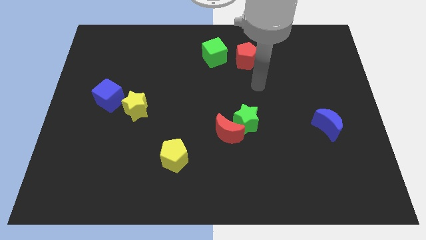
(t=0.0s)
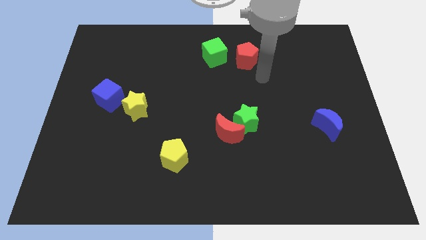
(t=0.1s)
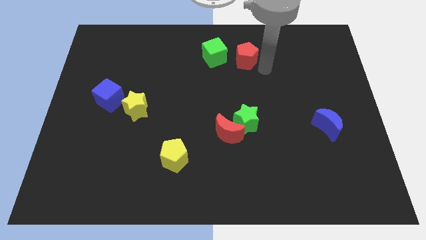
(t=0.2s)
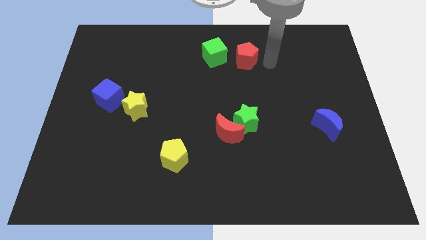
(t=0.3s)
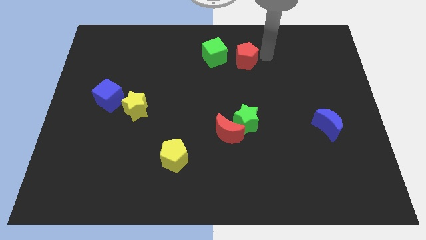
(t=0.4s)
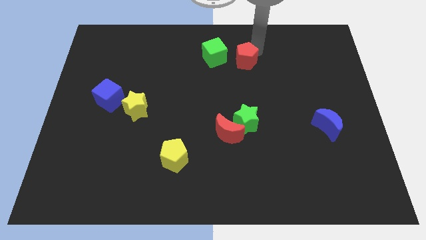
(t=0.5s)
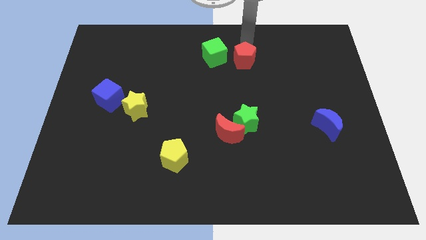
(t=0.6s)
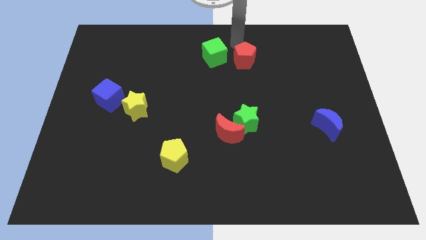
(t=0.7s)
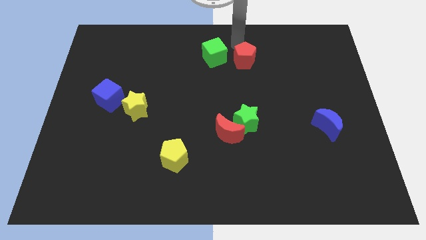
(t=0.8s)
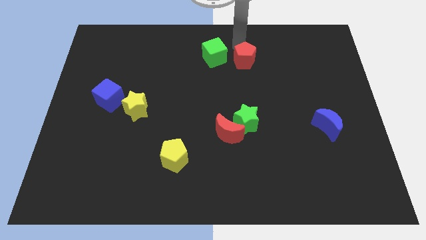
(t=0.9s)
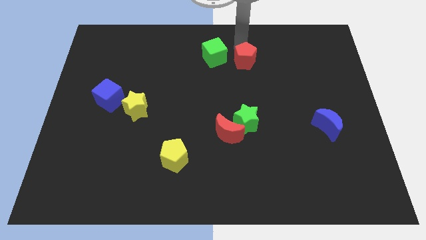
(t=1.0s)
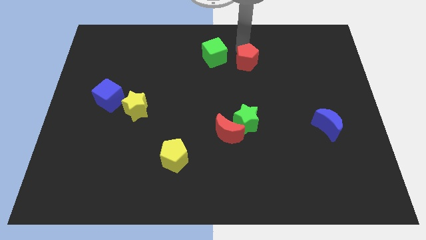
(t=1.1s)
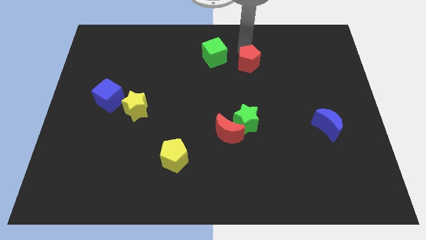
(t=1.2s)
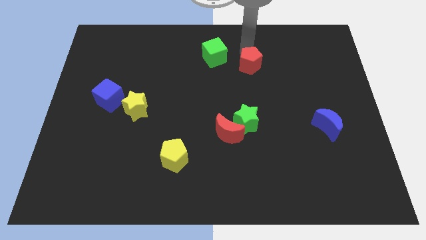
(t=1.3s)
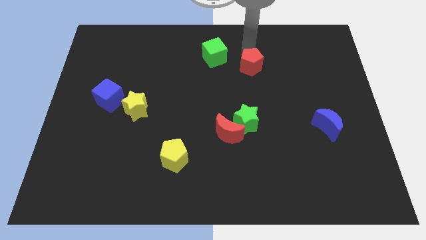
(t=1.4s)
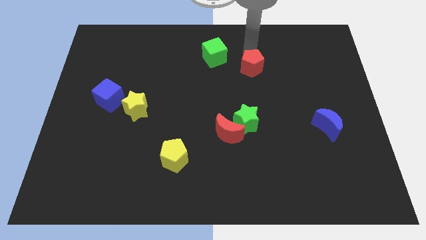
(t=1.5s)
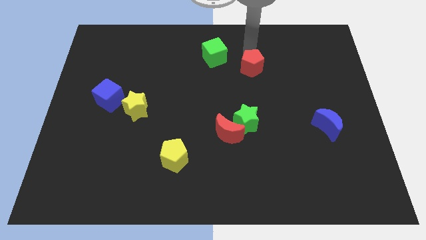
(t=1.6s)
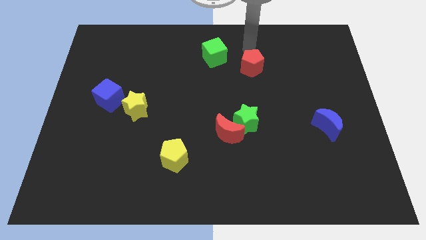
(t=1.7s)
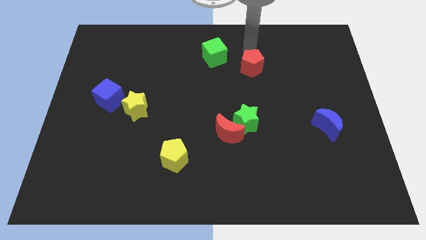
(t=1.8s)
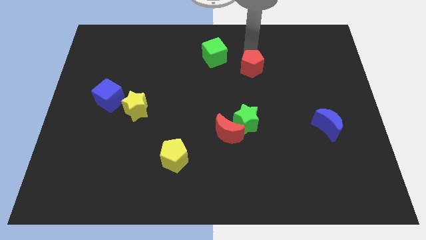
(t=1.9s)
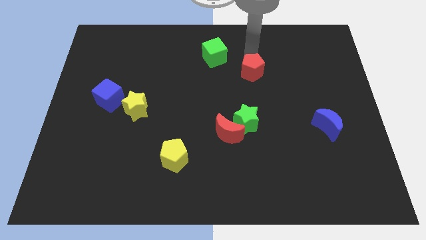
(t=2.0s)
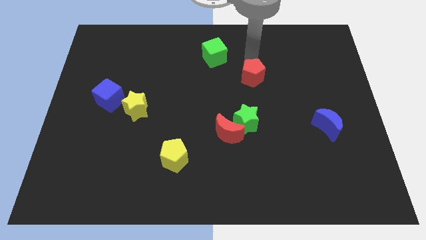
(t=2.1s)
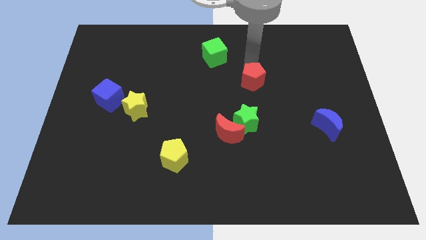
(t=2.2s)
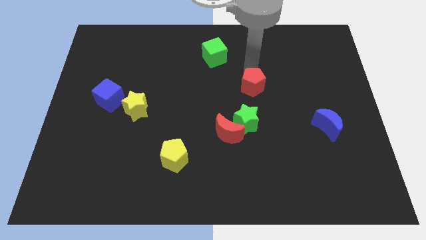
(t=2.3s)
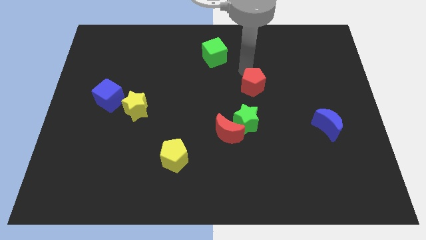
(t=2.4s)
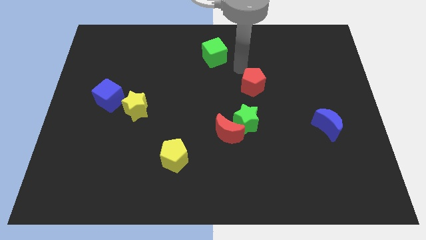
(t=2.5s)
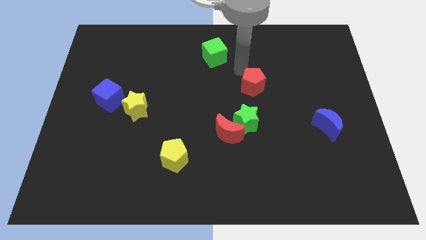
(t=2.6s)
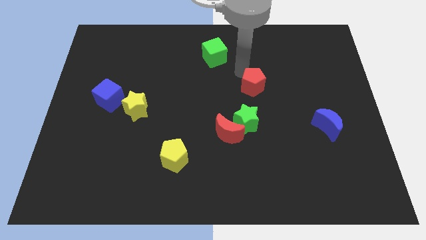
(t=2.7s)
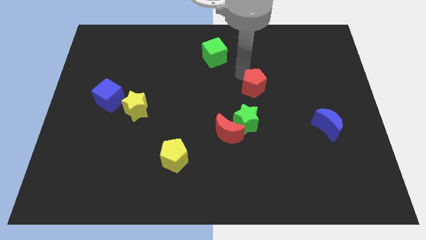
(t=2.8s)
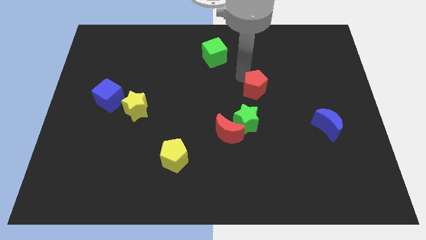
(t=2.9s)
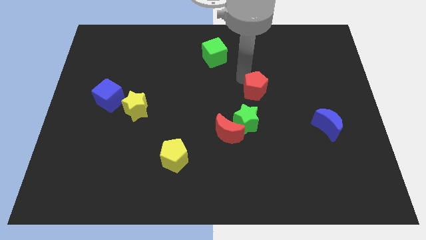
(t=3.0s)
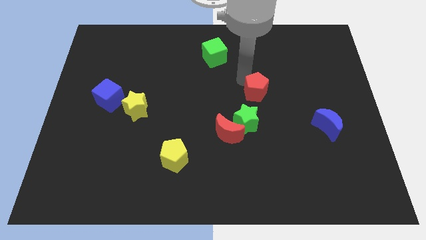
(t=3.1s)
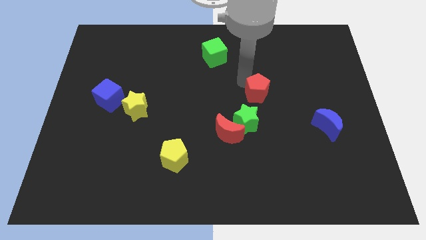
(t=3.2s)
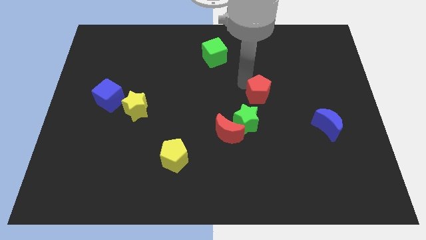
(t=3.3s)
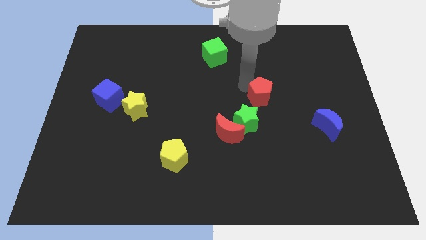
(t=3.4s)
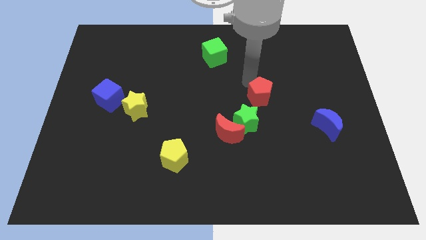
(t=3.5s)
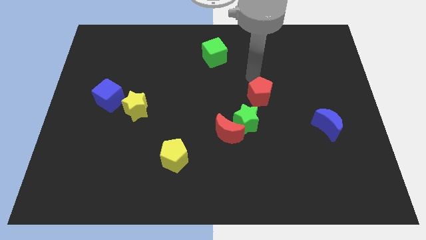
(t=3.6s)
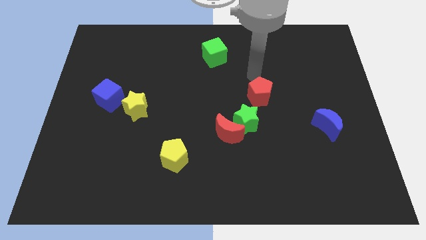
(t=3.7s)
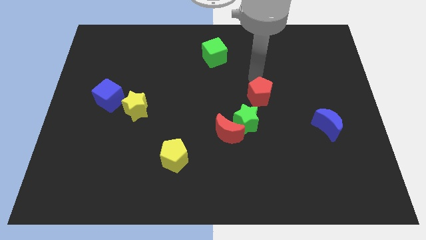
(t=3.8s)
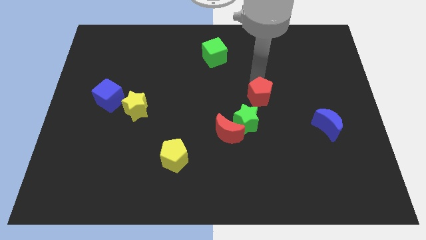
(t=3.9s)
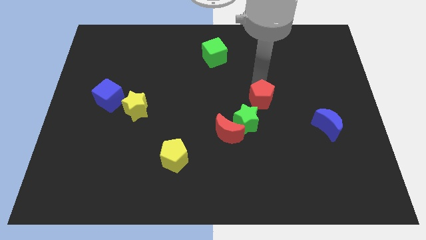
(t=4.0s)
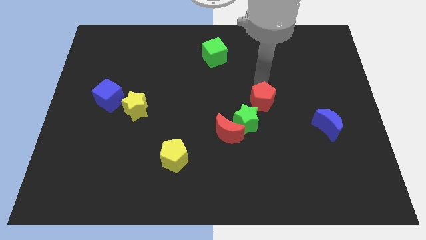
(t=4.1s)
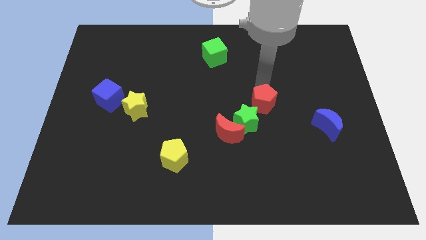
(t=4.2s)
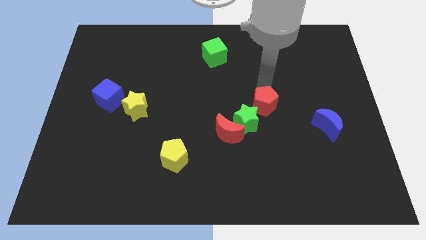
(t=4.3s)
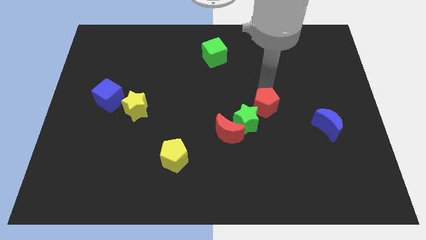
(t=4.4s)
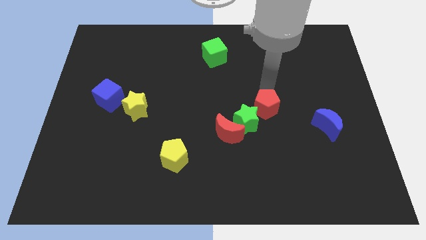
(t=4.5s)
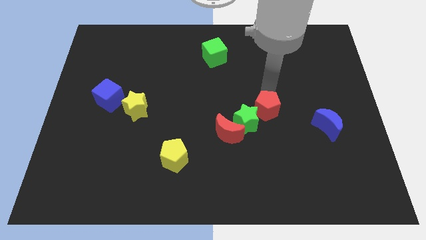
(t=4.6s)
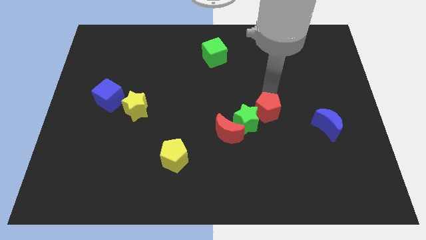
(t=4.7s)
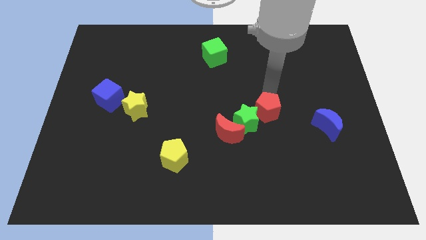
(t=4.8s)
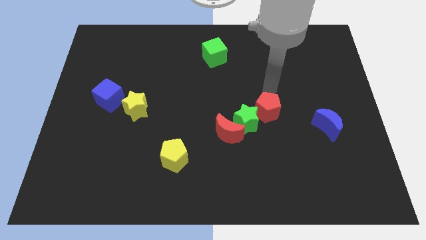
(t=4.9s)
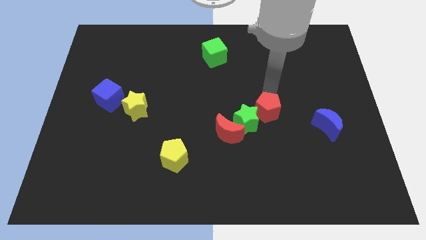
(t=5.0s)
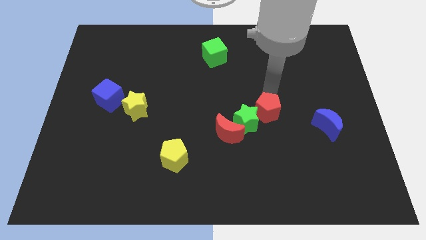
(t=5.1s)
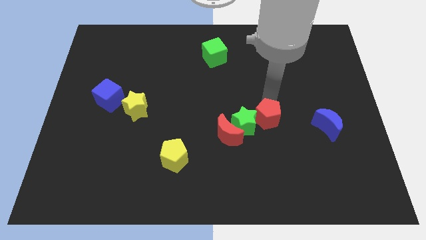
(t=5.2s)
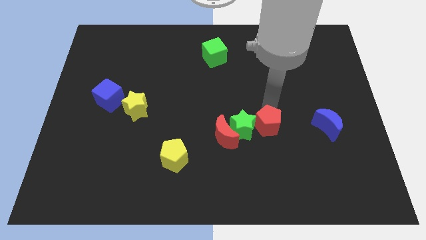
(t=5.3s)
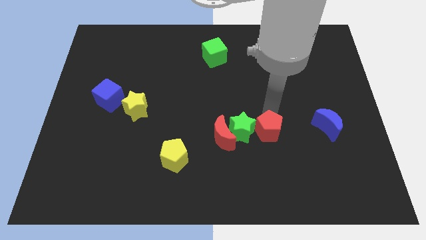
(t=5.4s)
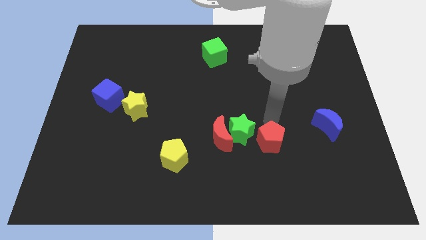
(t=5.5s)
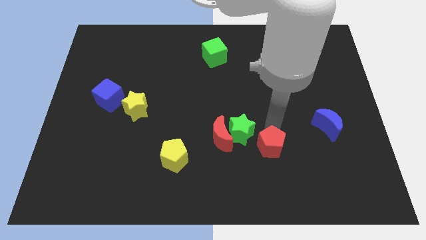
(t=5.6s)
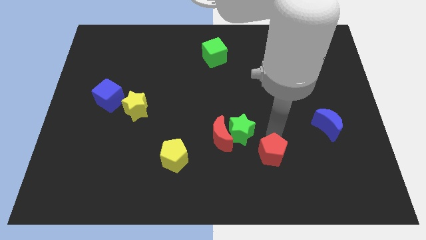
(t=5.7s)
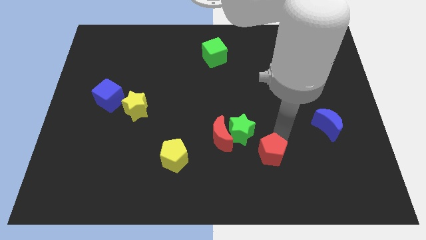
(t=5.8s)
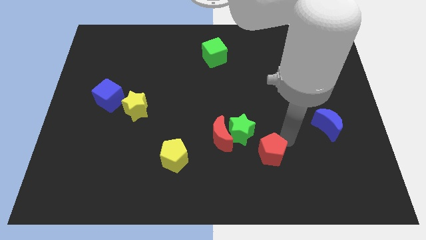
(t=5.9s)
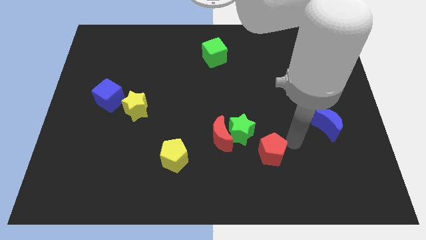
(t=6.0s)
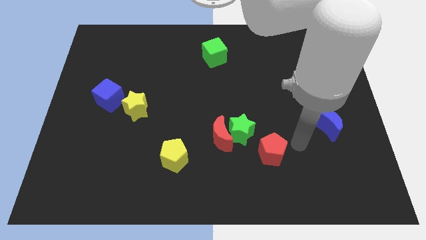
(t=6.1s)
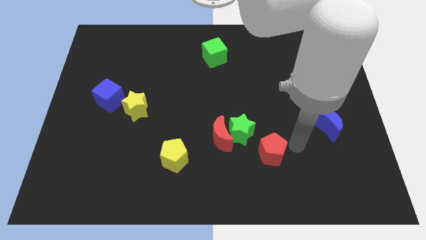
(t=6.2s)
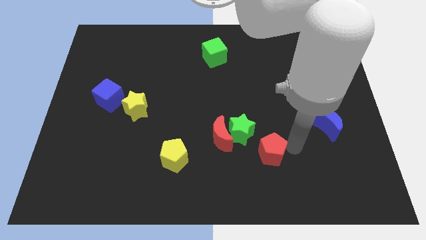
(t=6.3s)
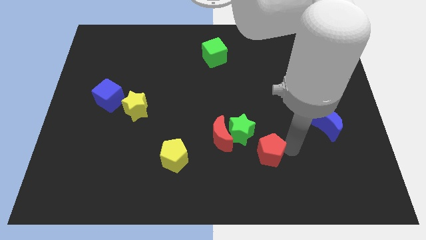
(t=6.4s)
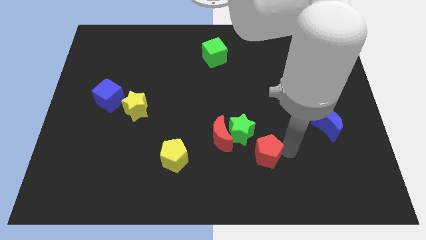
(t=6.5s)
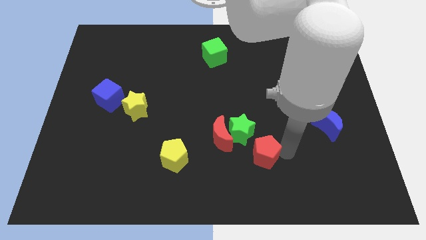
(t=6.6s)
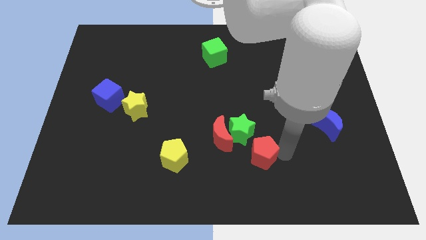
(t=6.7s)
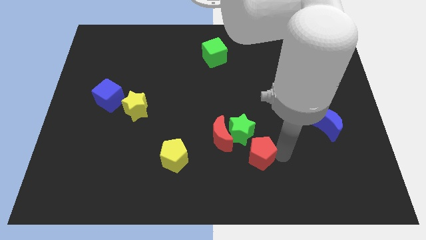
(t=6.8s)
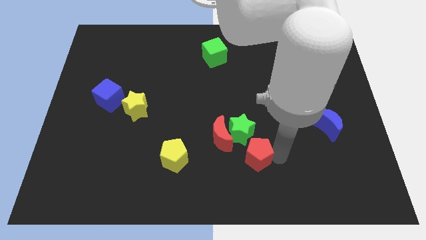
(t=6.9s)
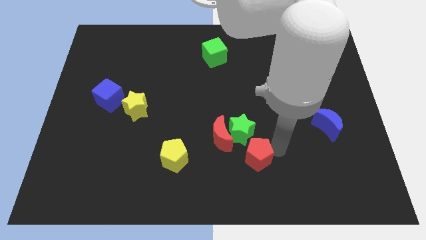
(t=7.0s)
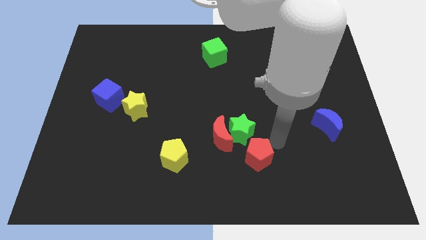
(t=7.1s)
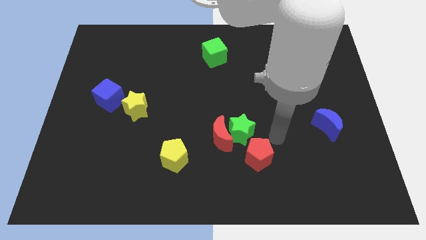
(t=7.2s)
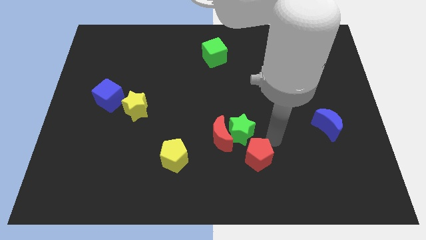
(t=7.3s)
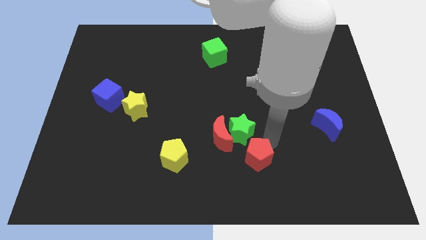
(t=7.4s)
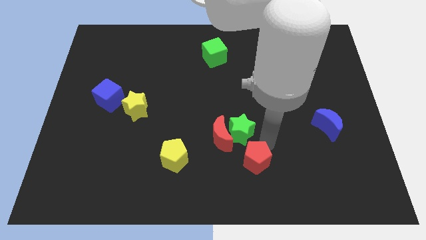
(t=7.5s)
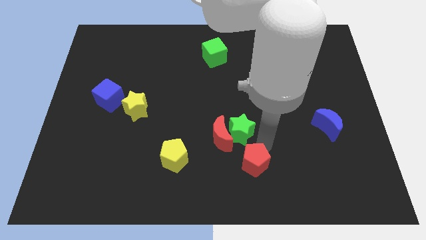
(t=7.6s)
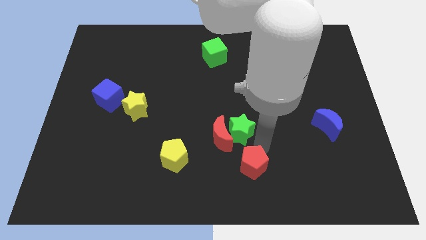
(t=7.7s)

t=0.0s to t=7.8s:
slide the red pentagon to the bottom side
